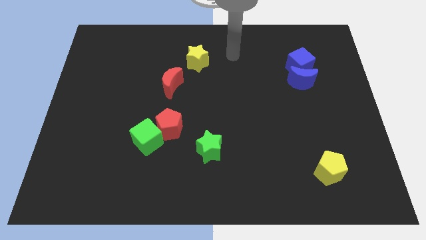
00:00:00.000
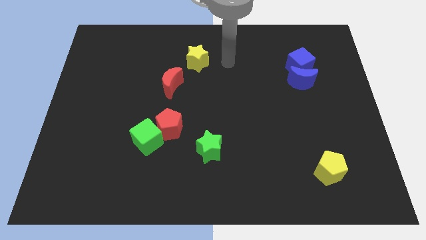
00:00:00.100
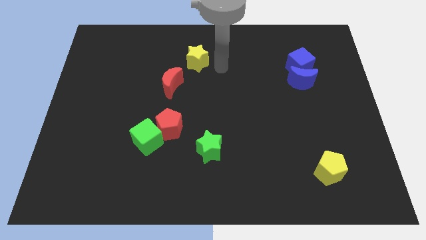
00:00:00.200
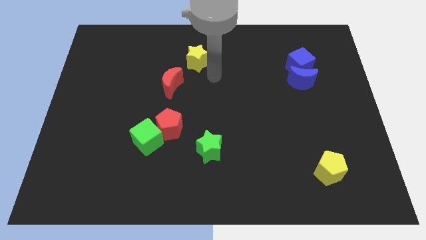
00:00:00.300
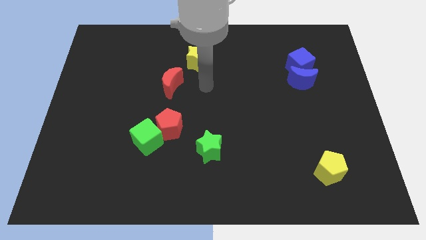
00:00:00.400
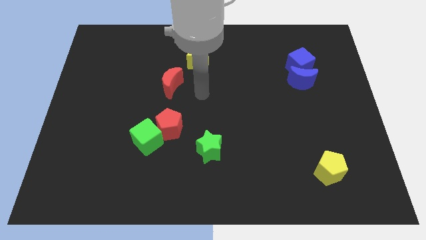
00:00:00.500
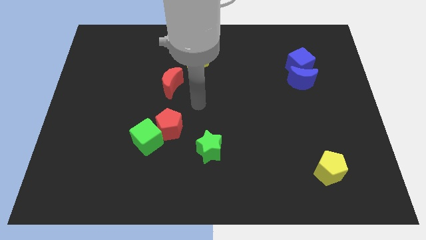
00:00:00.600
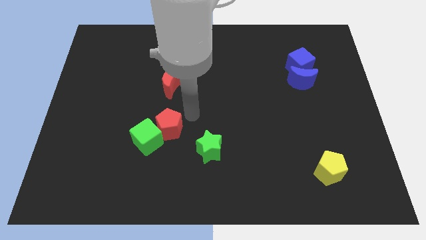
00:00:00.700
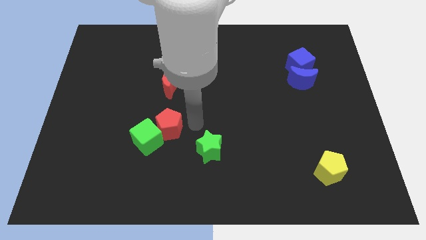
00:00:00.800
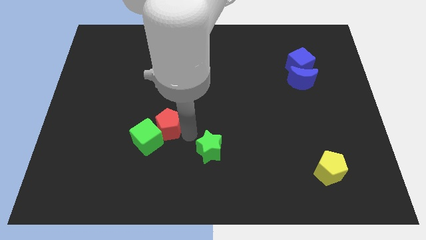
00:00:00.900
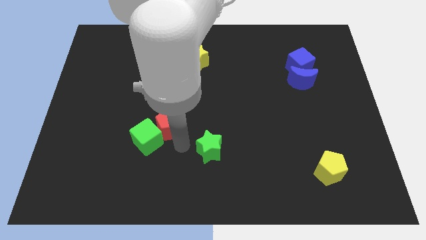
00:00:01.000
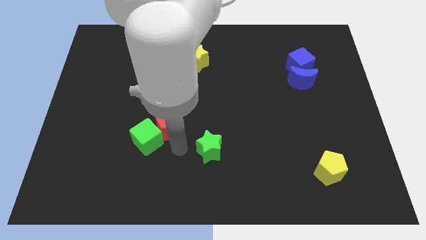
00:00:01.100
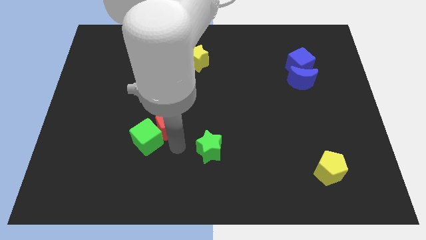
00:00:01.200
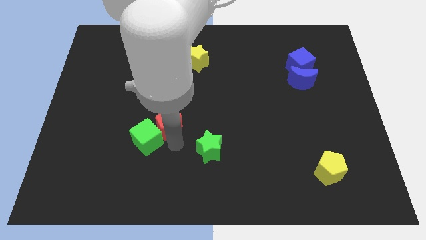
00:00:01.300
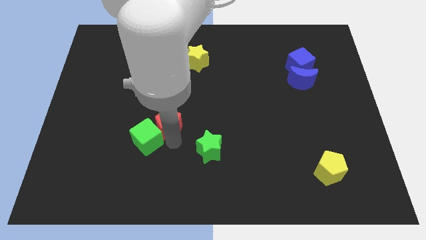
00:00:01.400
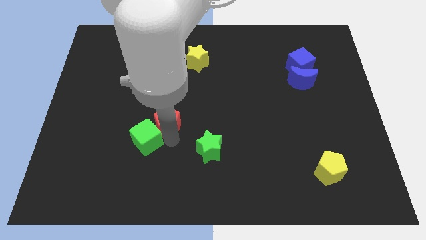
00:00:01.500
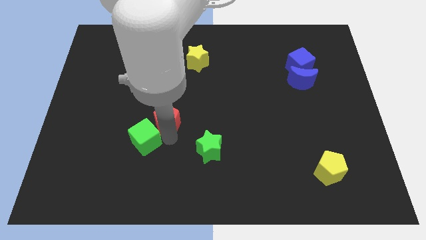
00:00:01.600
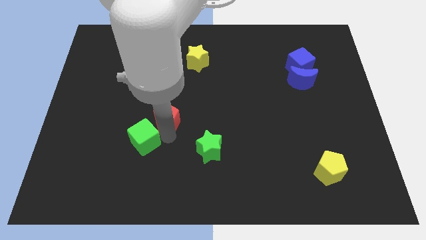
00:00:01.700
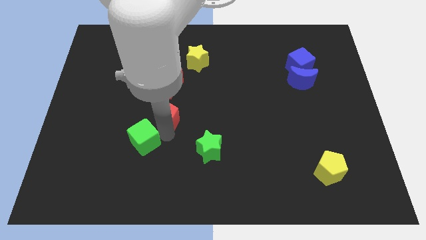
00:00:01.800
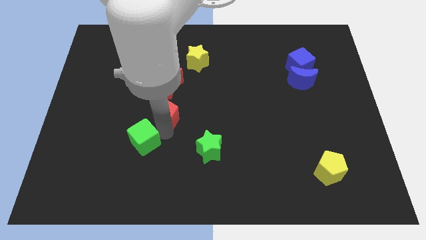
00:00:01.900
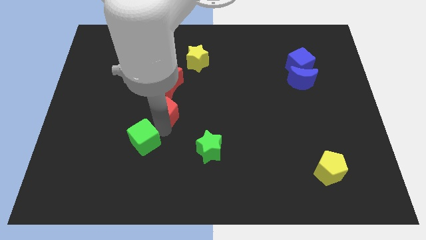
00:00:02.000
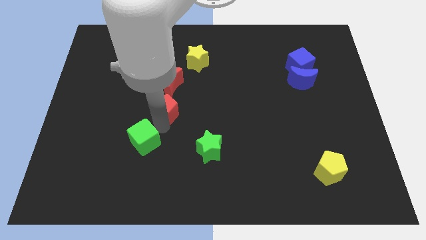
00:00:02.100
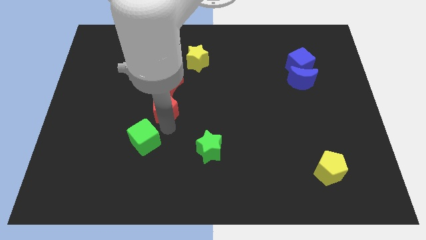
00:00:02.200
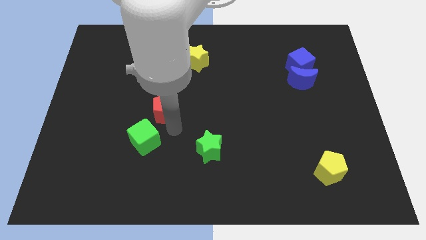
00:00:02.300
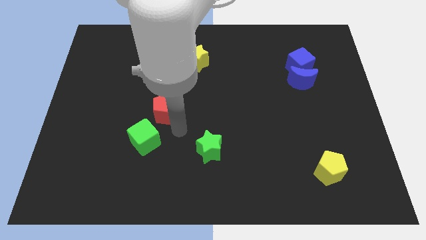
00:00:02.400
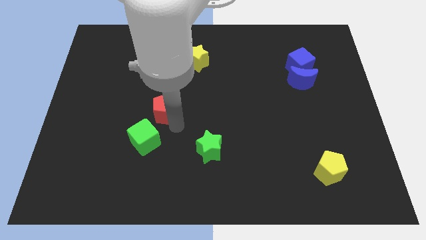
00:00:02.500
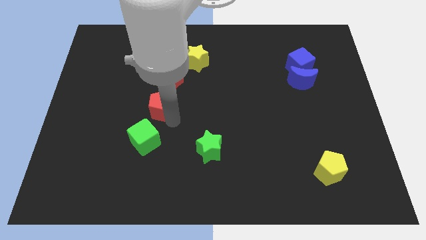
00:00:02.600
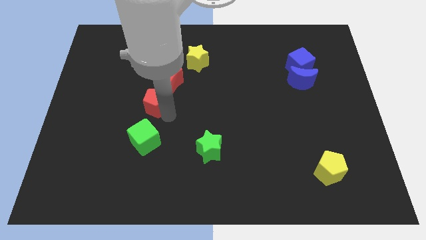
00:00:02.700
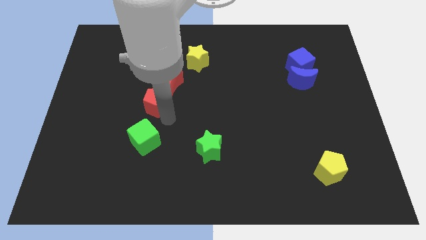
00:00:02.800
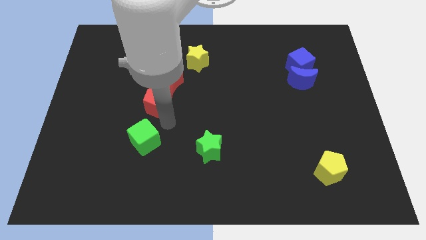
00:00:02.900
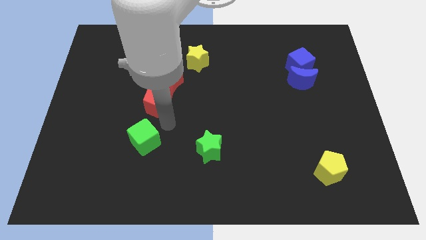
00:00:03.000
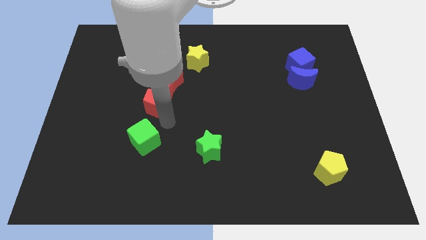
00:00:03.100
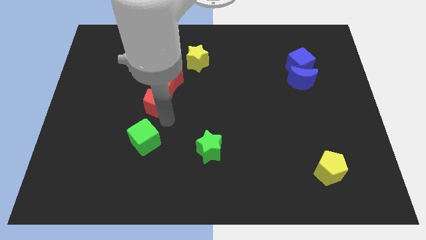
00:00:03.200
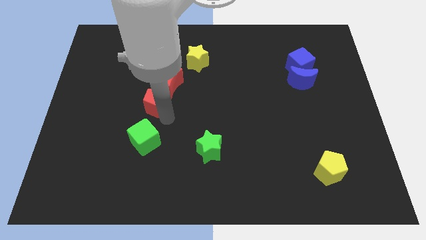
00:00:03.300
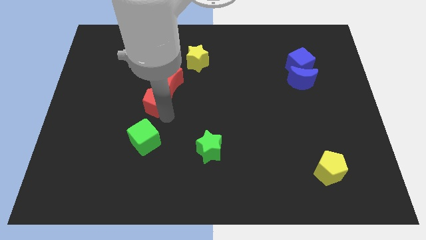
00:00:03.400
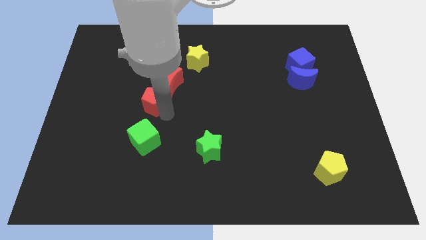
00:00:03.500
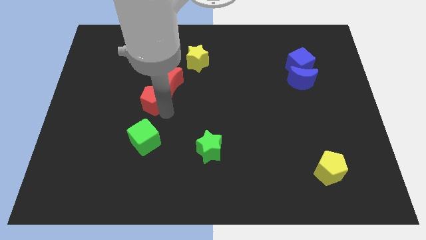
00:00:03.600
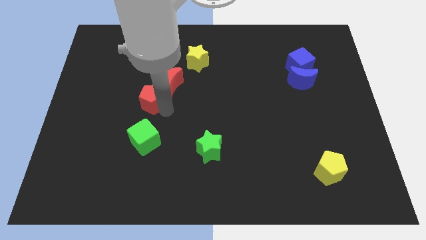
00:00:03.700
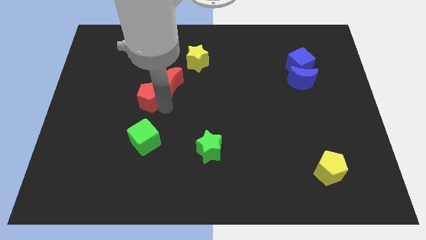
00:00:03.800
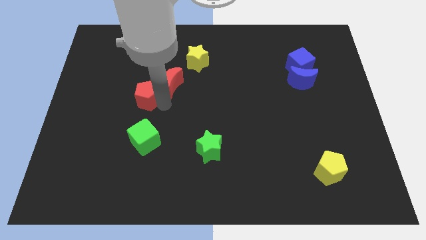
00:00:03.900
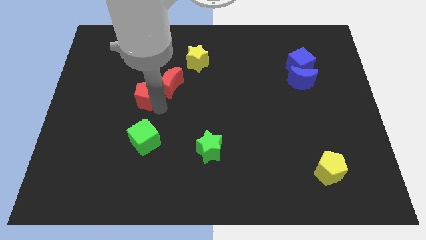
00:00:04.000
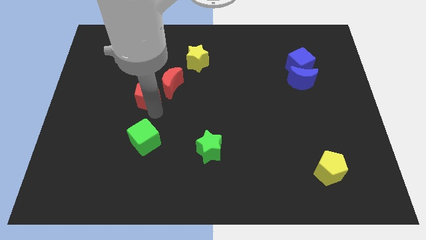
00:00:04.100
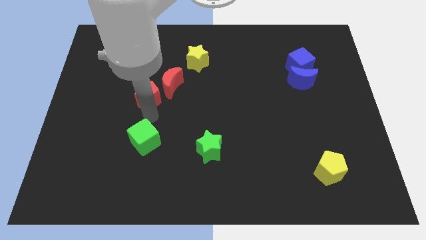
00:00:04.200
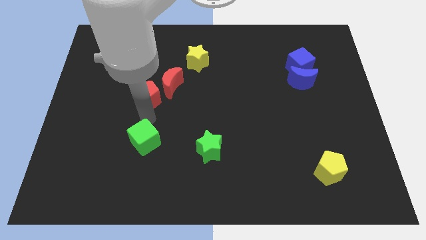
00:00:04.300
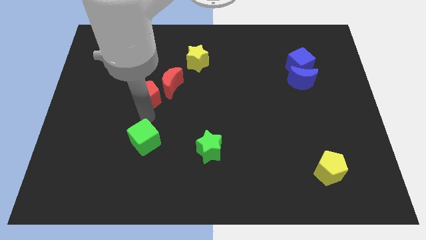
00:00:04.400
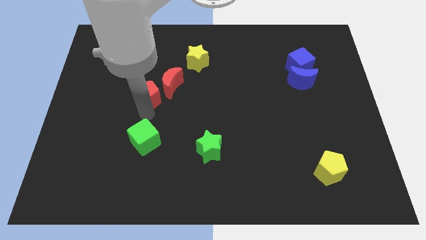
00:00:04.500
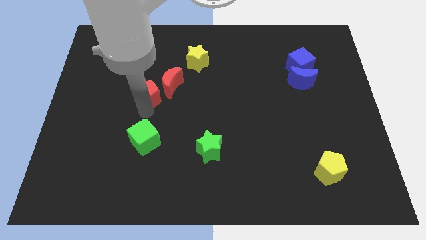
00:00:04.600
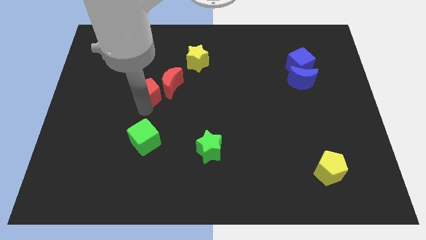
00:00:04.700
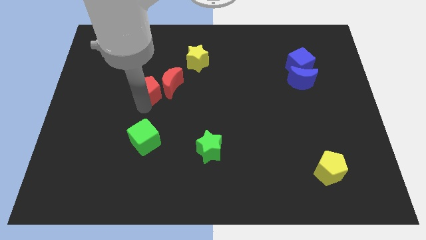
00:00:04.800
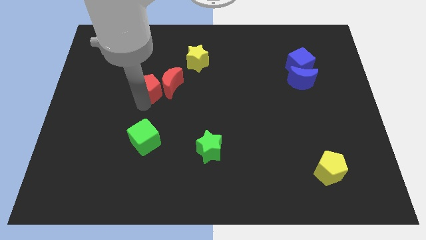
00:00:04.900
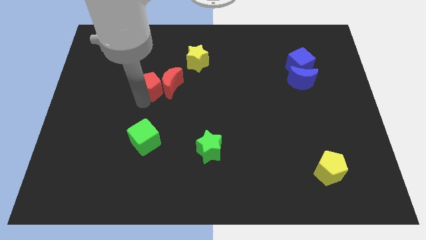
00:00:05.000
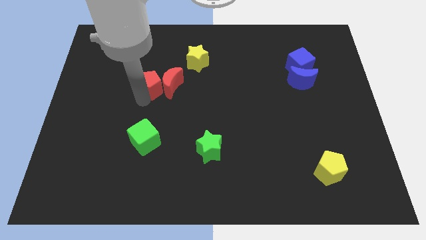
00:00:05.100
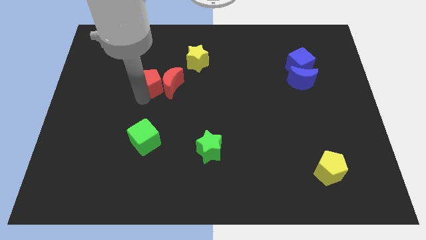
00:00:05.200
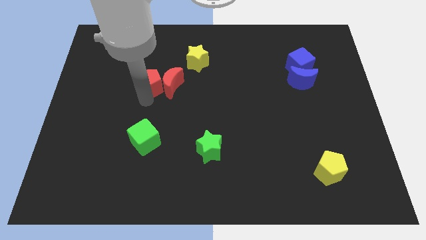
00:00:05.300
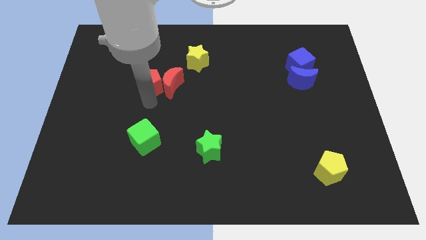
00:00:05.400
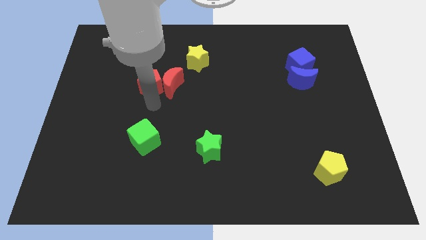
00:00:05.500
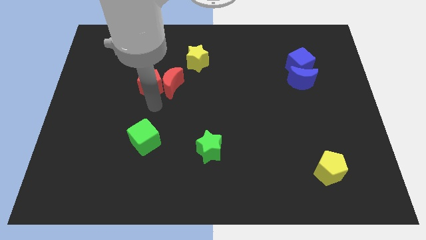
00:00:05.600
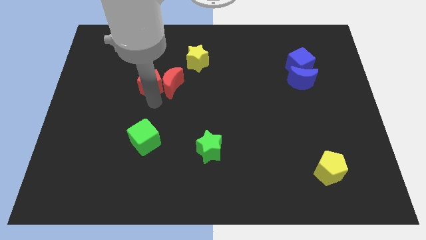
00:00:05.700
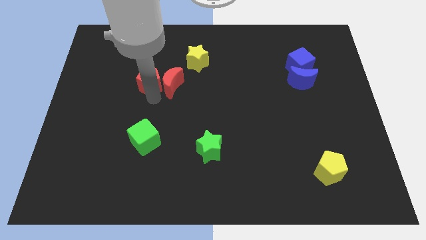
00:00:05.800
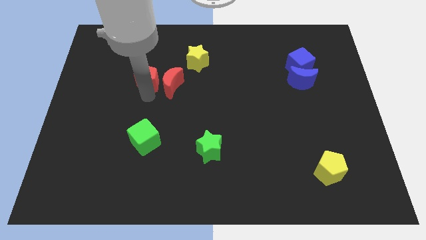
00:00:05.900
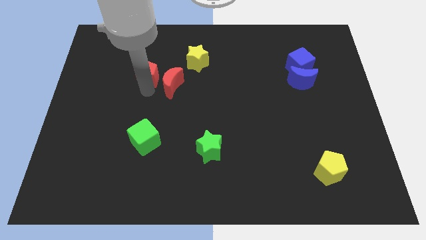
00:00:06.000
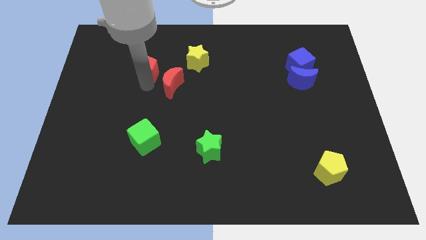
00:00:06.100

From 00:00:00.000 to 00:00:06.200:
put the red pentagon to the left of the yellow star

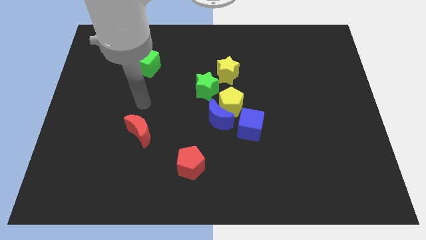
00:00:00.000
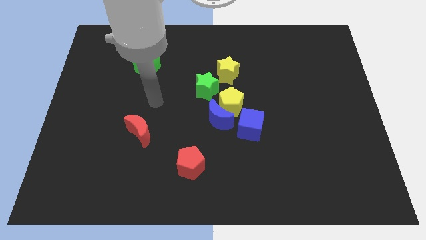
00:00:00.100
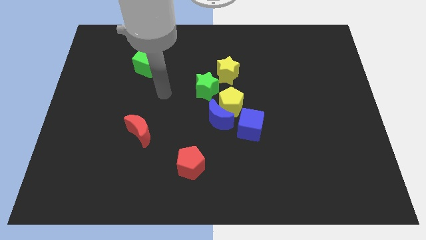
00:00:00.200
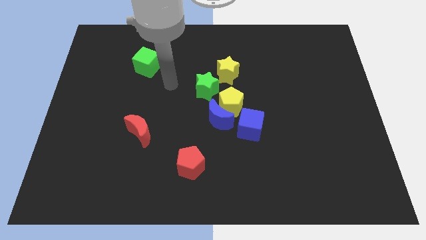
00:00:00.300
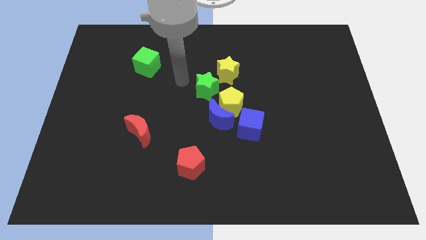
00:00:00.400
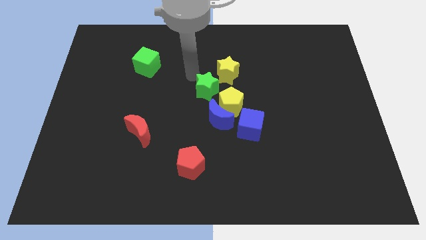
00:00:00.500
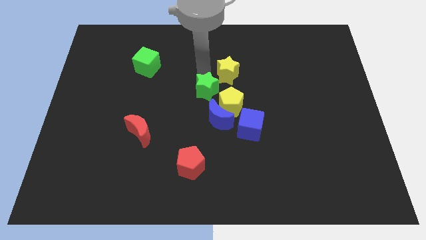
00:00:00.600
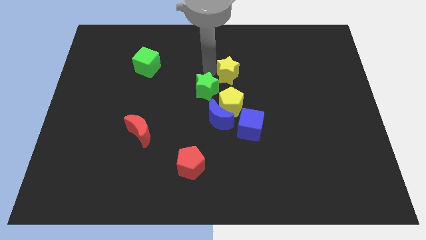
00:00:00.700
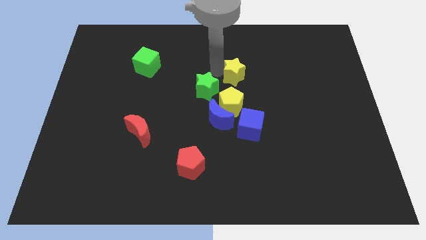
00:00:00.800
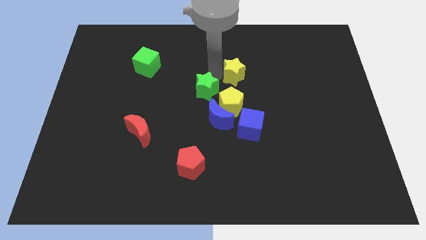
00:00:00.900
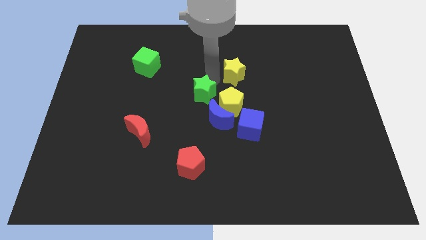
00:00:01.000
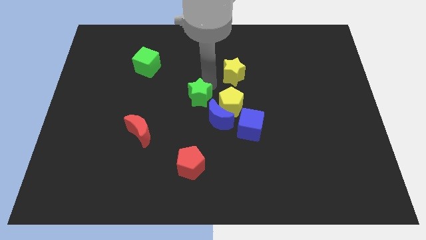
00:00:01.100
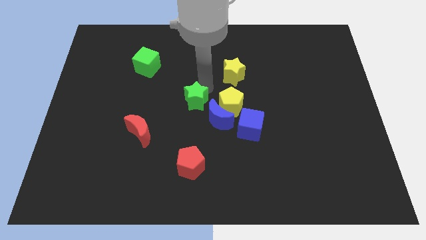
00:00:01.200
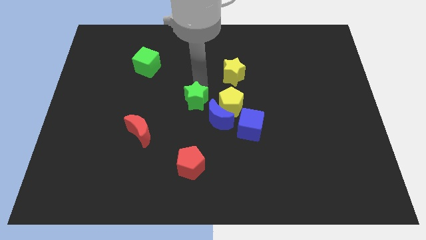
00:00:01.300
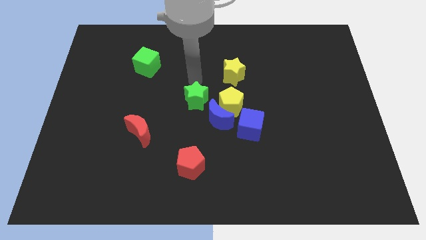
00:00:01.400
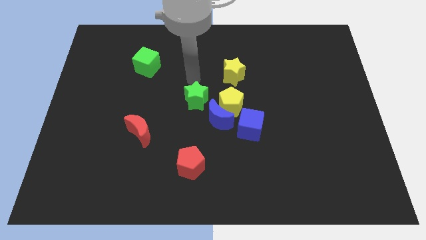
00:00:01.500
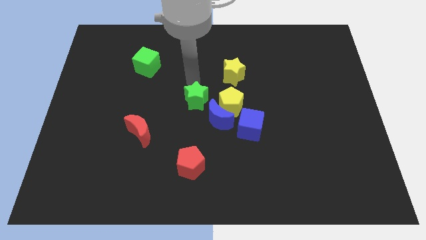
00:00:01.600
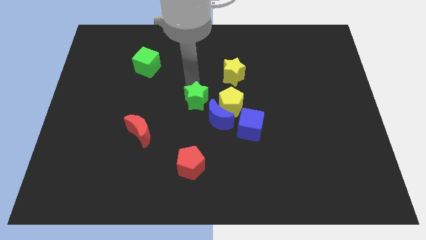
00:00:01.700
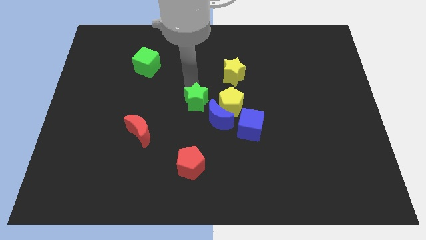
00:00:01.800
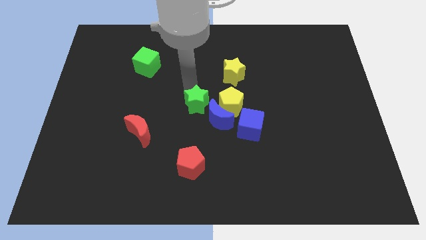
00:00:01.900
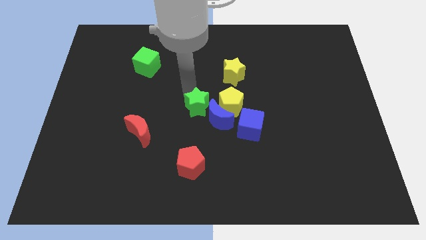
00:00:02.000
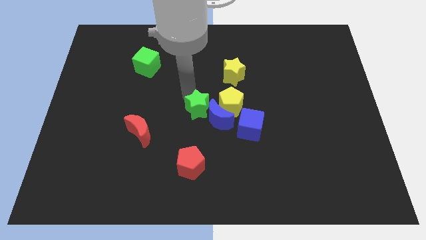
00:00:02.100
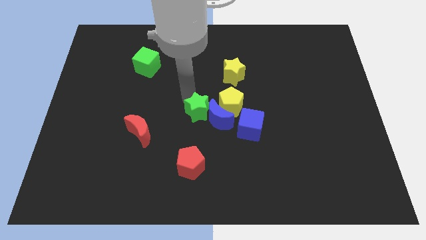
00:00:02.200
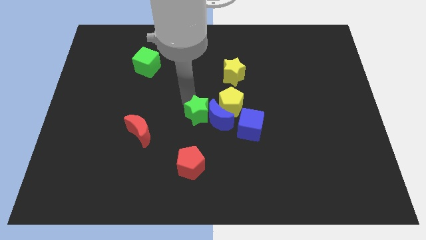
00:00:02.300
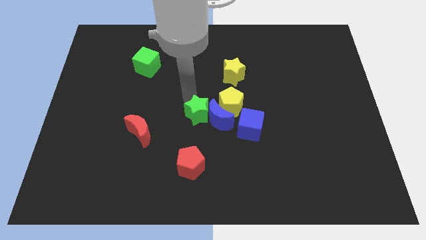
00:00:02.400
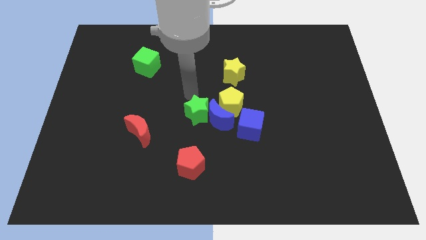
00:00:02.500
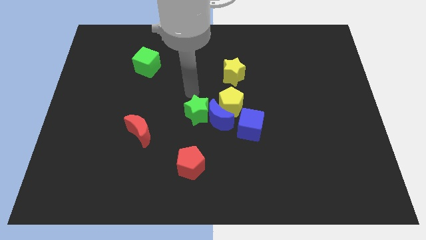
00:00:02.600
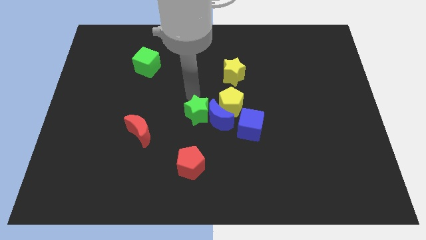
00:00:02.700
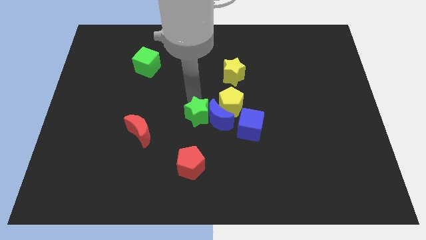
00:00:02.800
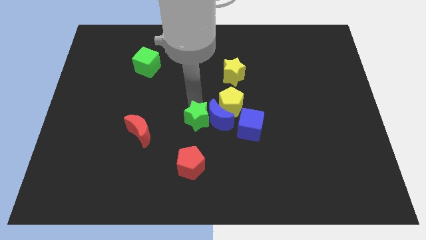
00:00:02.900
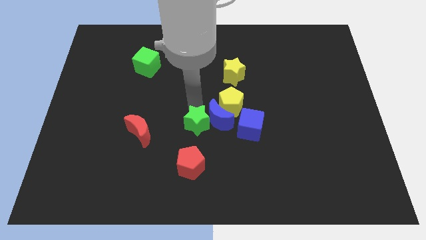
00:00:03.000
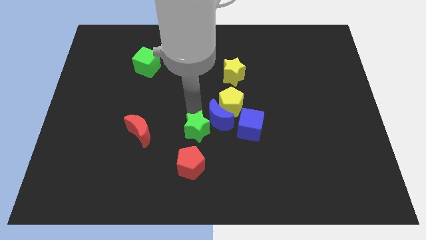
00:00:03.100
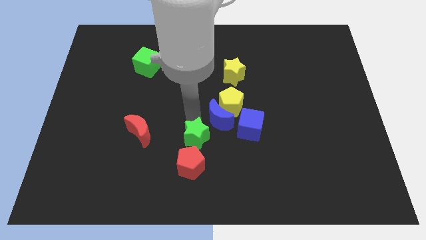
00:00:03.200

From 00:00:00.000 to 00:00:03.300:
move the green star to the top right side of the red pentagon
